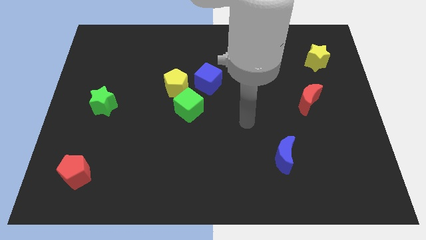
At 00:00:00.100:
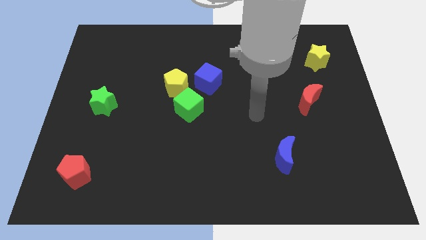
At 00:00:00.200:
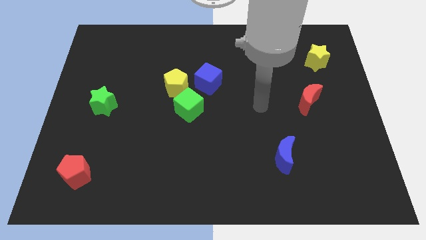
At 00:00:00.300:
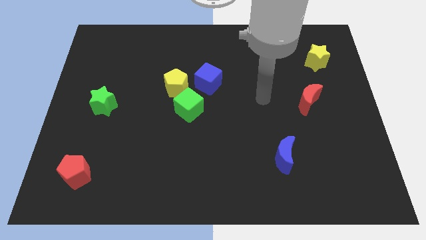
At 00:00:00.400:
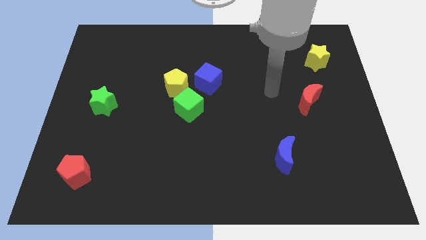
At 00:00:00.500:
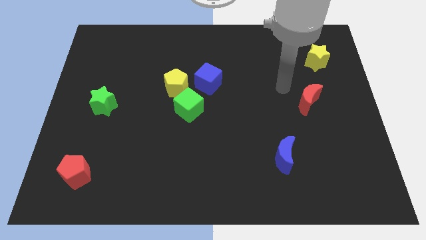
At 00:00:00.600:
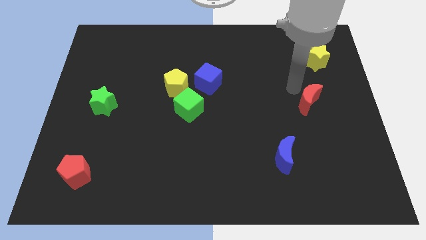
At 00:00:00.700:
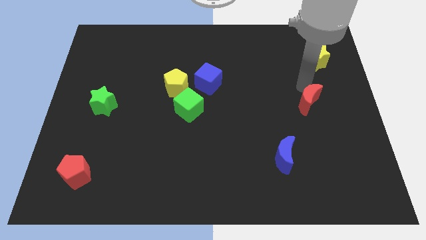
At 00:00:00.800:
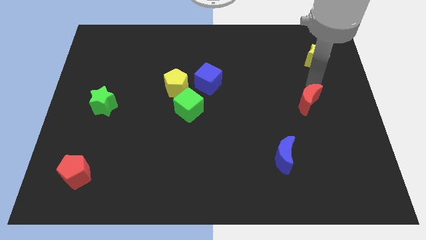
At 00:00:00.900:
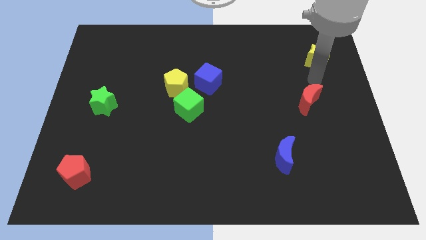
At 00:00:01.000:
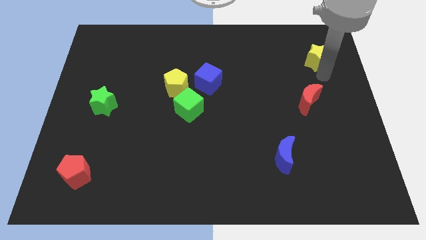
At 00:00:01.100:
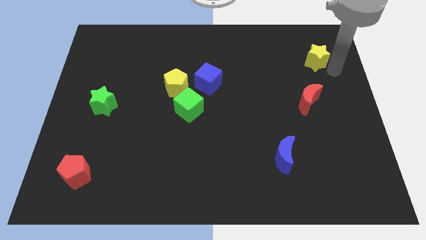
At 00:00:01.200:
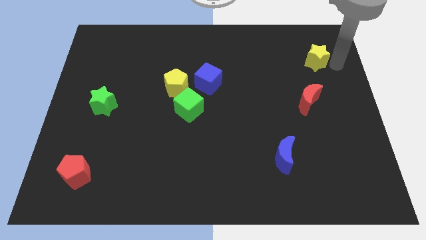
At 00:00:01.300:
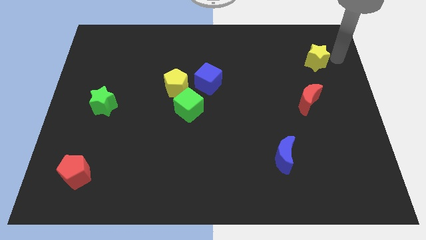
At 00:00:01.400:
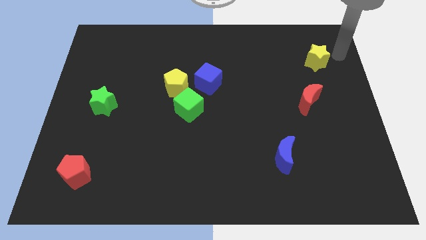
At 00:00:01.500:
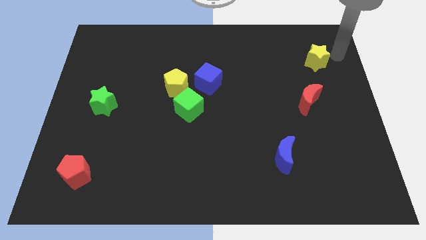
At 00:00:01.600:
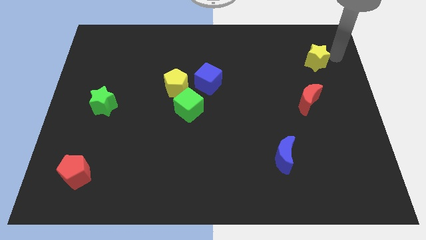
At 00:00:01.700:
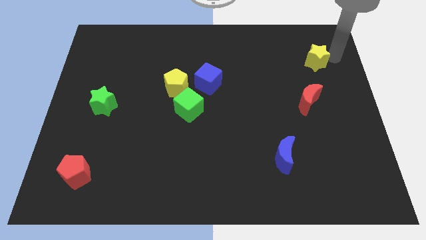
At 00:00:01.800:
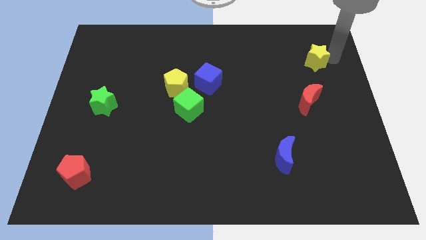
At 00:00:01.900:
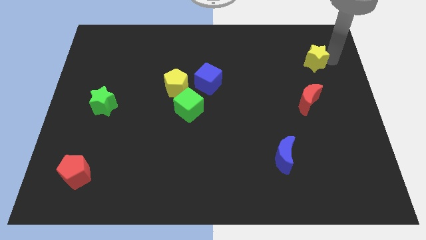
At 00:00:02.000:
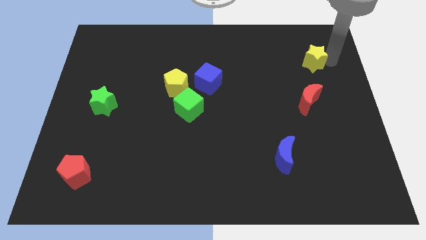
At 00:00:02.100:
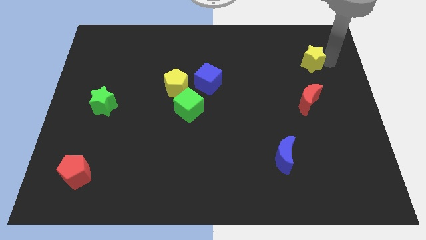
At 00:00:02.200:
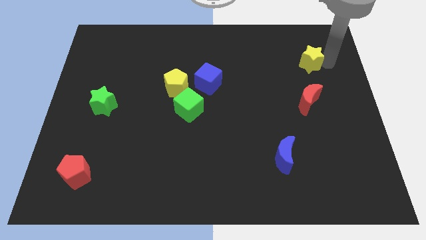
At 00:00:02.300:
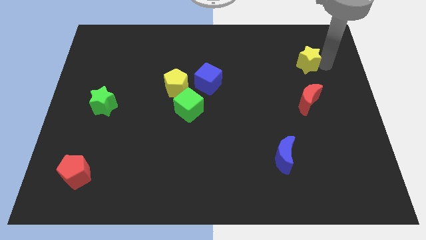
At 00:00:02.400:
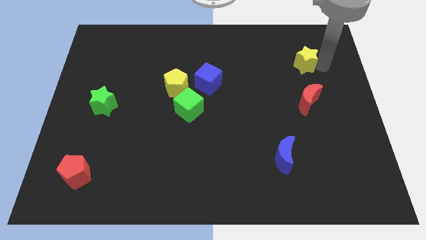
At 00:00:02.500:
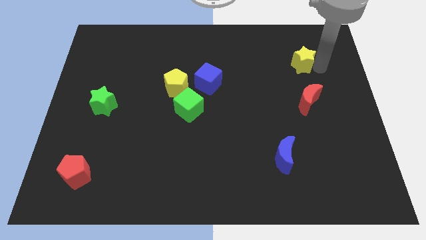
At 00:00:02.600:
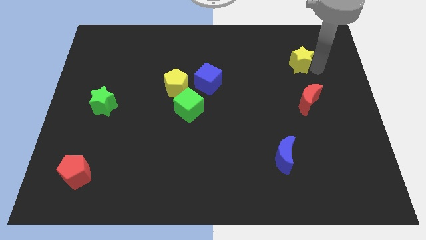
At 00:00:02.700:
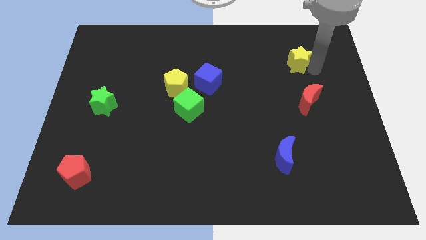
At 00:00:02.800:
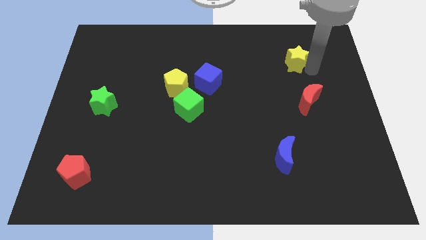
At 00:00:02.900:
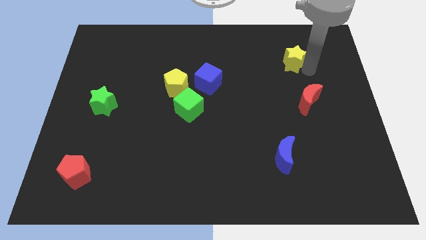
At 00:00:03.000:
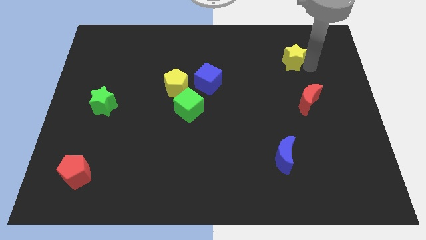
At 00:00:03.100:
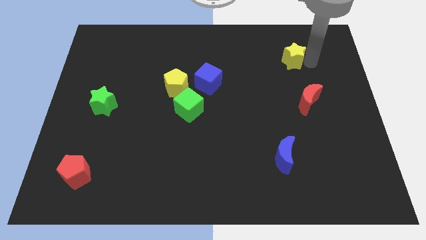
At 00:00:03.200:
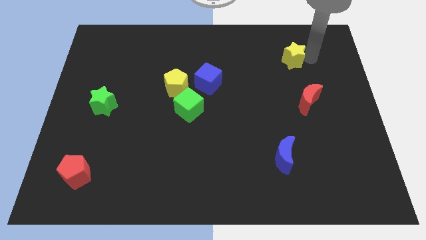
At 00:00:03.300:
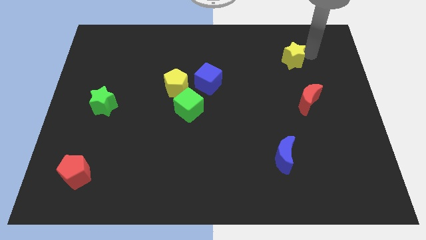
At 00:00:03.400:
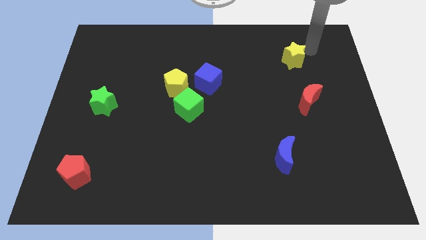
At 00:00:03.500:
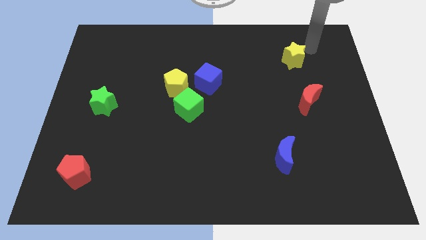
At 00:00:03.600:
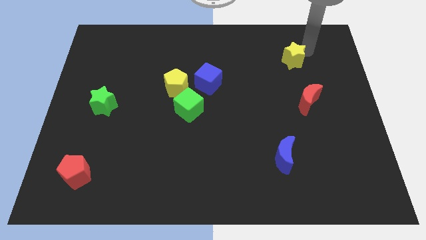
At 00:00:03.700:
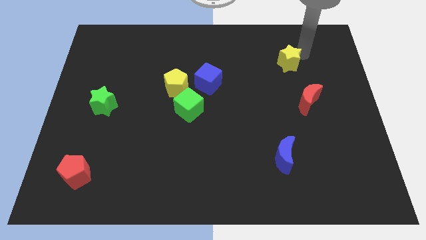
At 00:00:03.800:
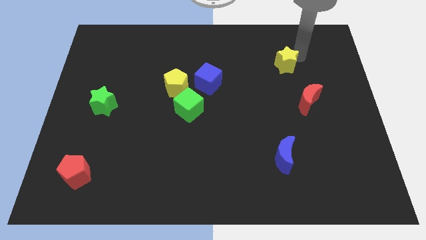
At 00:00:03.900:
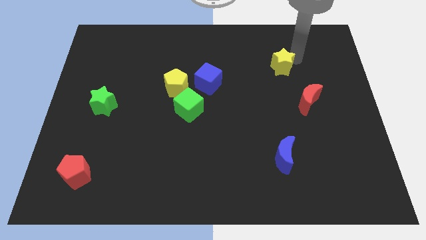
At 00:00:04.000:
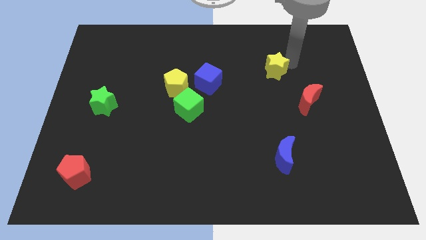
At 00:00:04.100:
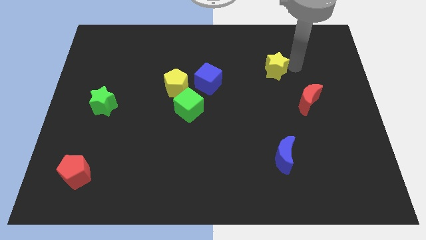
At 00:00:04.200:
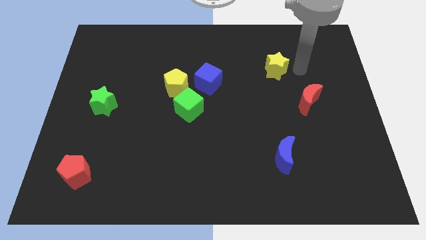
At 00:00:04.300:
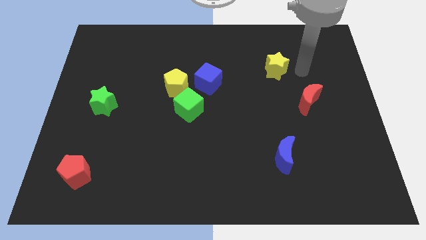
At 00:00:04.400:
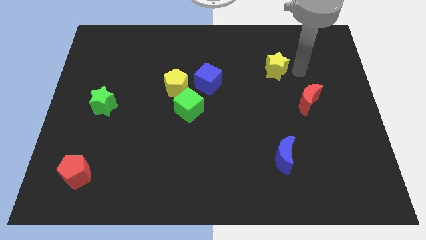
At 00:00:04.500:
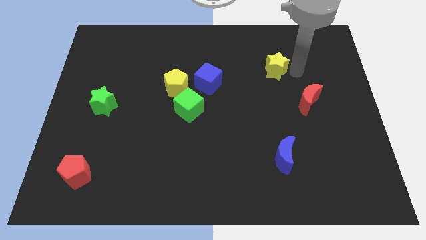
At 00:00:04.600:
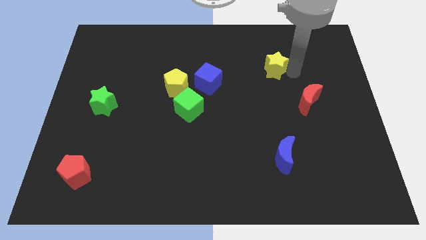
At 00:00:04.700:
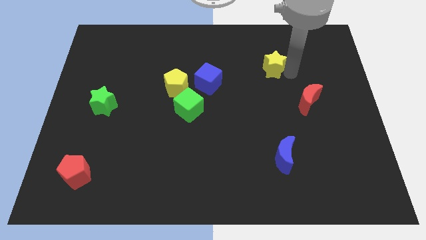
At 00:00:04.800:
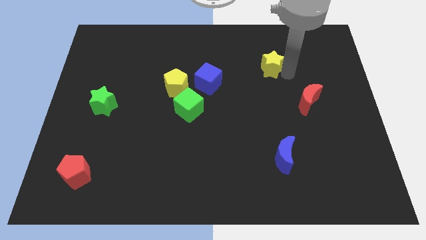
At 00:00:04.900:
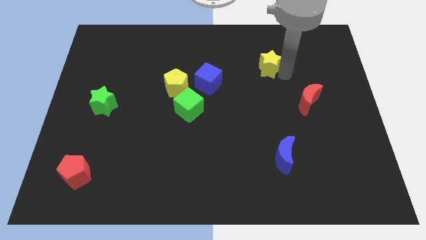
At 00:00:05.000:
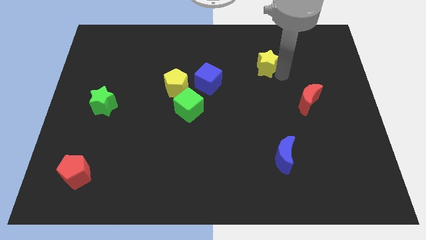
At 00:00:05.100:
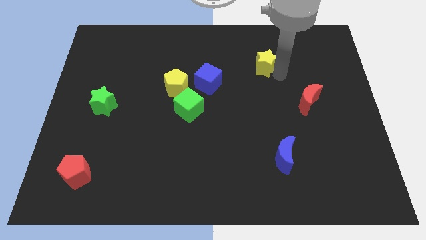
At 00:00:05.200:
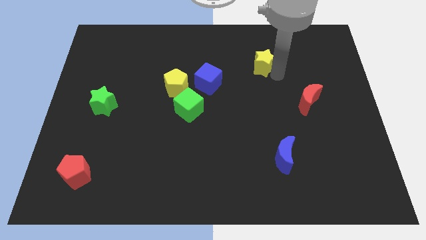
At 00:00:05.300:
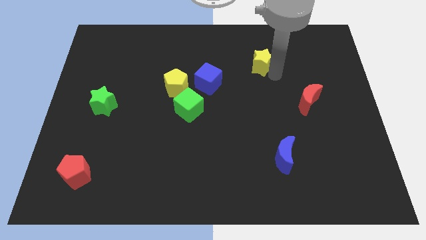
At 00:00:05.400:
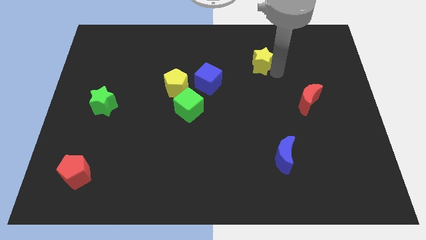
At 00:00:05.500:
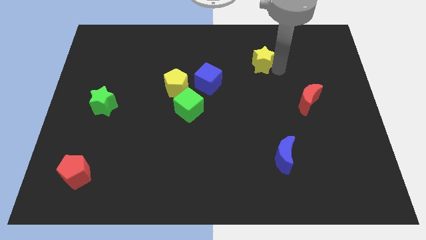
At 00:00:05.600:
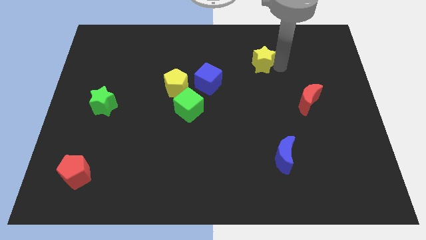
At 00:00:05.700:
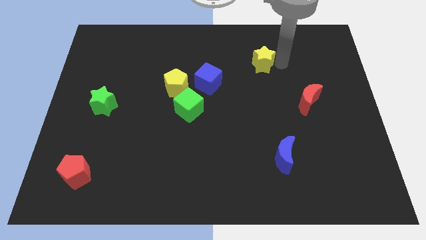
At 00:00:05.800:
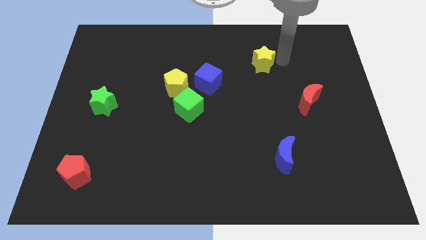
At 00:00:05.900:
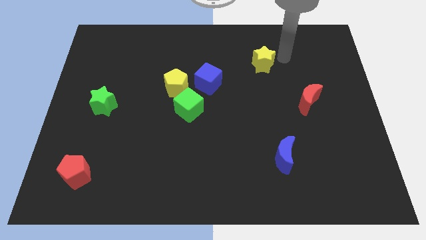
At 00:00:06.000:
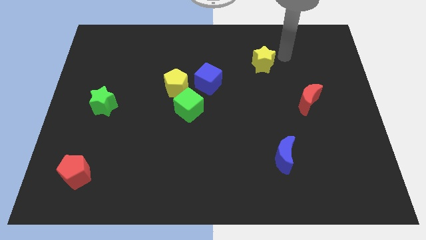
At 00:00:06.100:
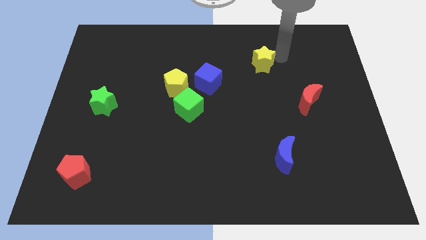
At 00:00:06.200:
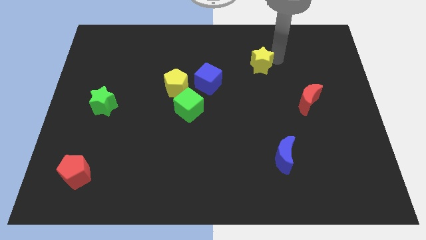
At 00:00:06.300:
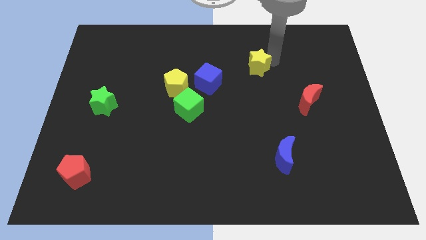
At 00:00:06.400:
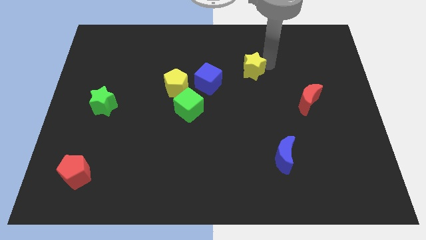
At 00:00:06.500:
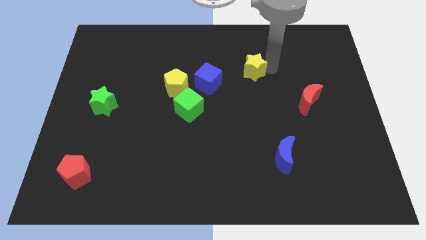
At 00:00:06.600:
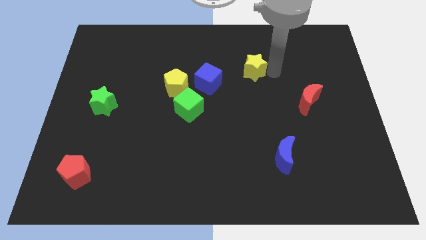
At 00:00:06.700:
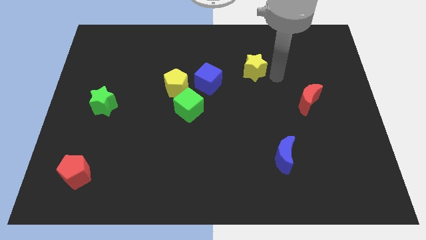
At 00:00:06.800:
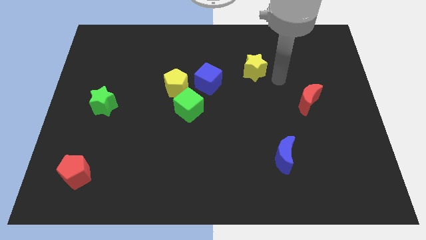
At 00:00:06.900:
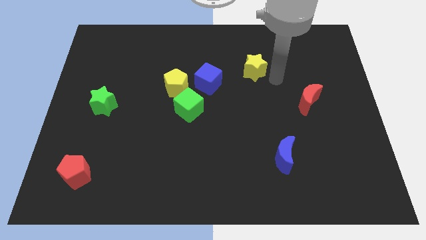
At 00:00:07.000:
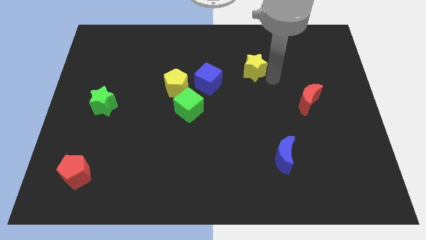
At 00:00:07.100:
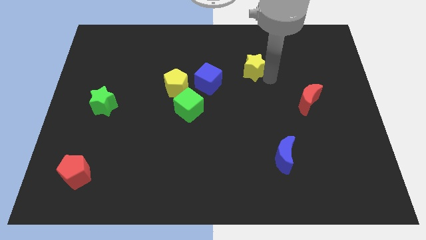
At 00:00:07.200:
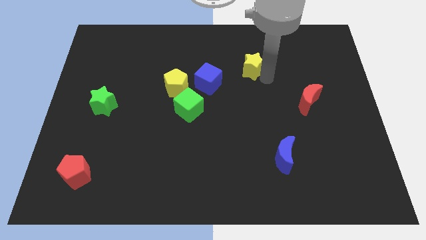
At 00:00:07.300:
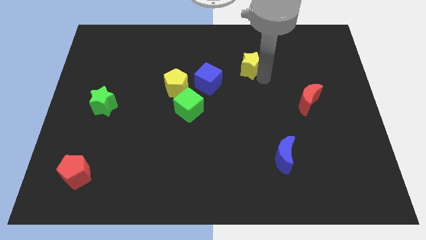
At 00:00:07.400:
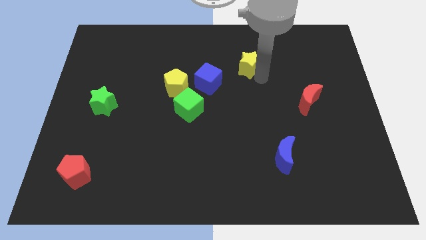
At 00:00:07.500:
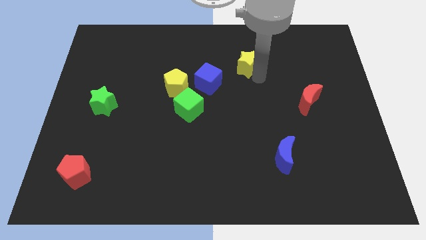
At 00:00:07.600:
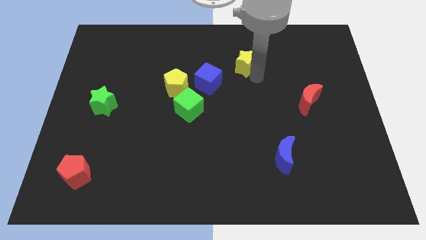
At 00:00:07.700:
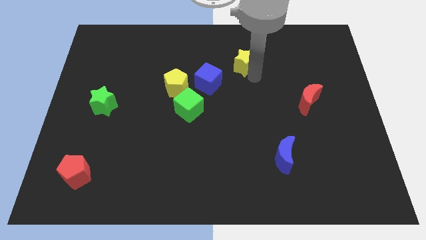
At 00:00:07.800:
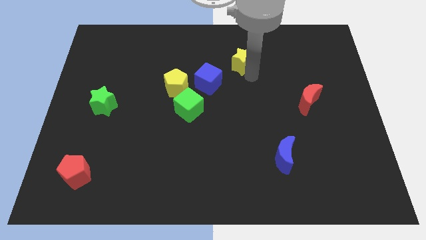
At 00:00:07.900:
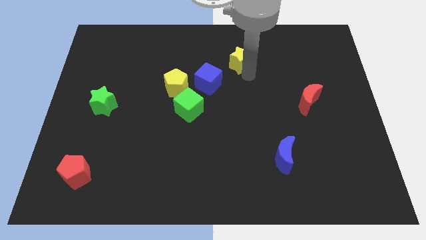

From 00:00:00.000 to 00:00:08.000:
slide the yellow star to the left
